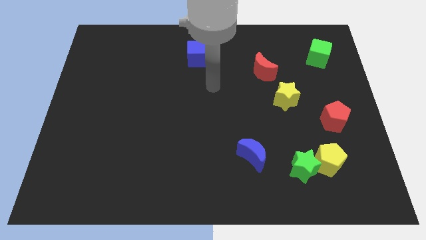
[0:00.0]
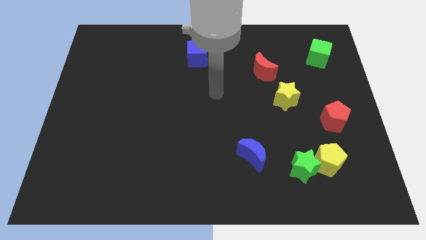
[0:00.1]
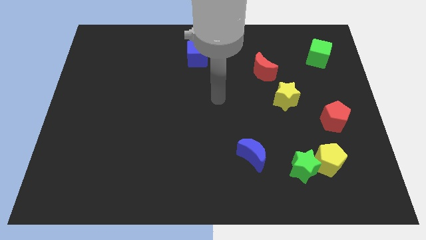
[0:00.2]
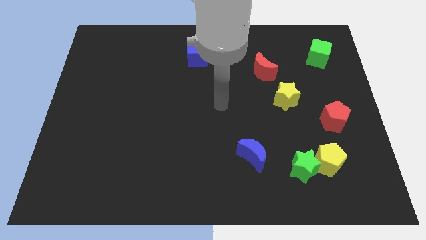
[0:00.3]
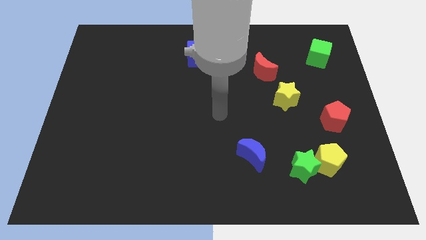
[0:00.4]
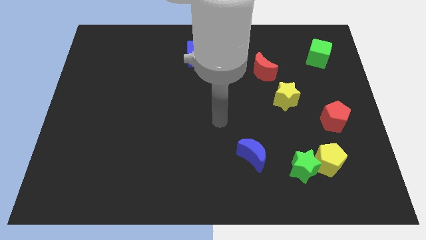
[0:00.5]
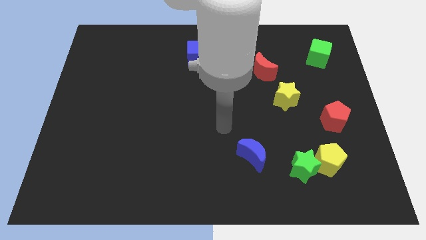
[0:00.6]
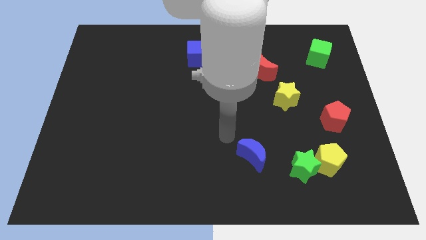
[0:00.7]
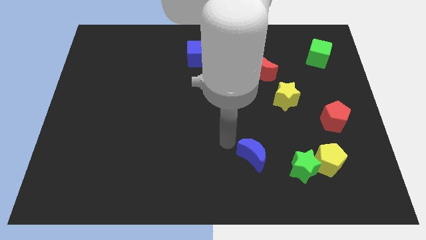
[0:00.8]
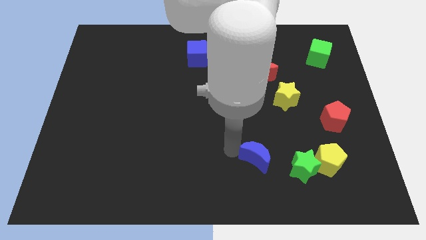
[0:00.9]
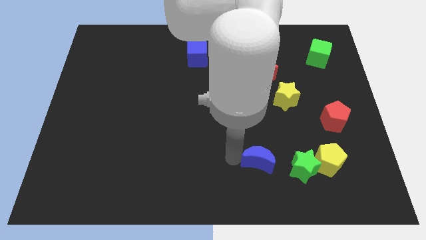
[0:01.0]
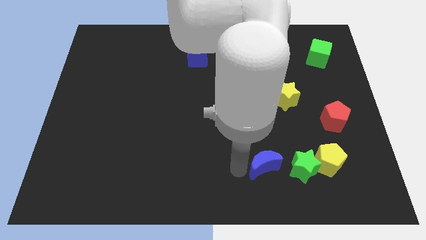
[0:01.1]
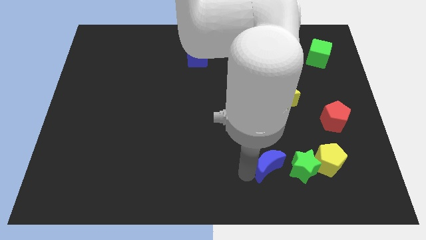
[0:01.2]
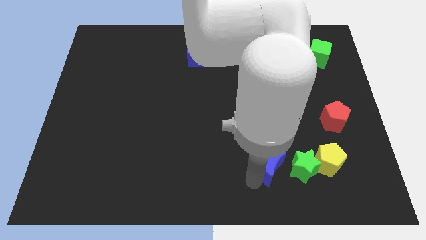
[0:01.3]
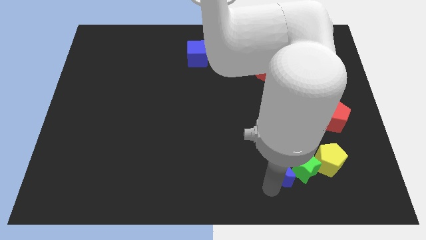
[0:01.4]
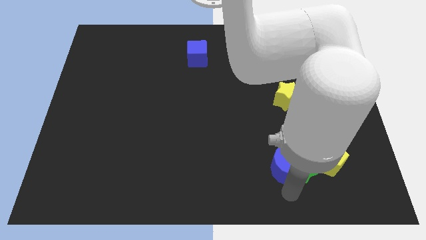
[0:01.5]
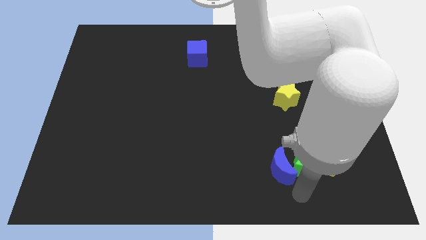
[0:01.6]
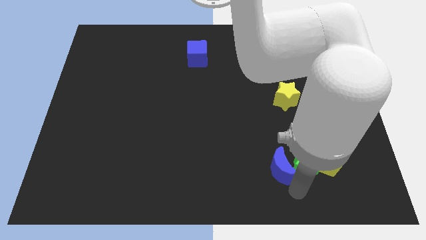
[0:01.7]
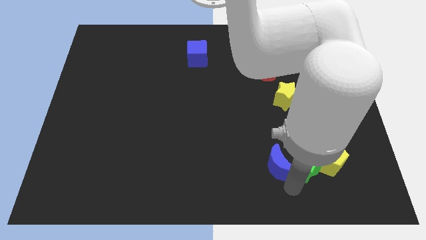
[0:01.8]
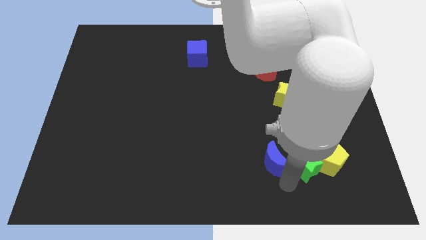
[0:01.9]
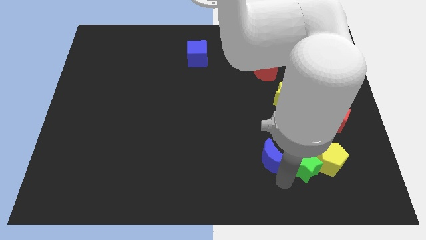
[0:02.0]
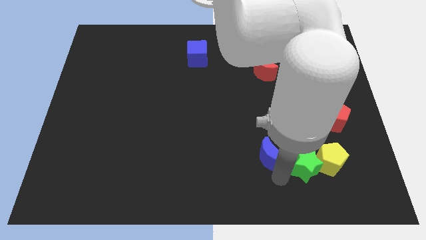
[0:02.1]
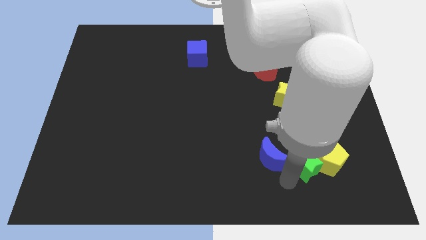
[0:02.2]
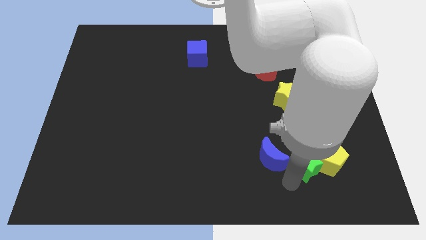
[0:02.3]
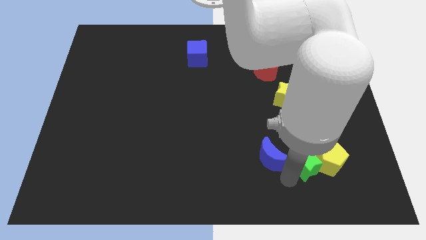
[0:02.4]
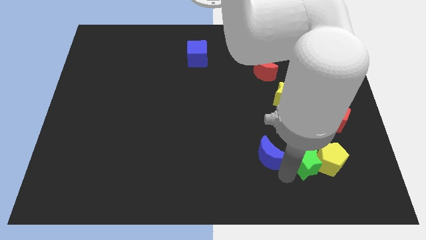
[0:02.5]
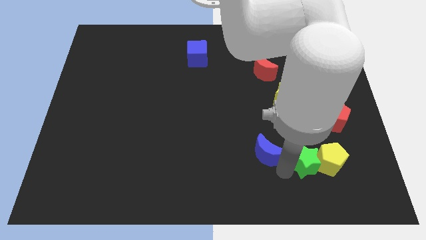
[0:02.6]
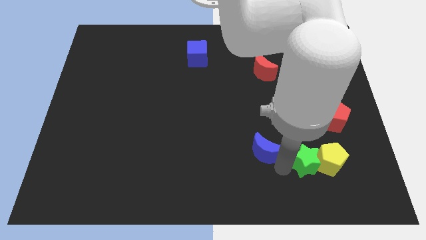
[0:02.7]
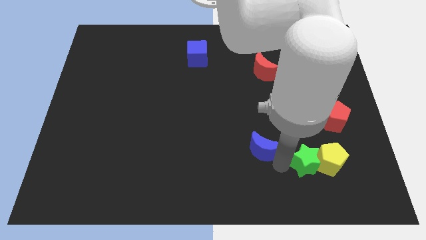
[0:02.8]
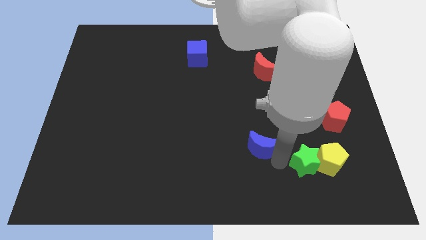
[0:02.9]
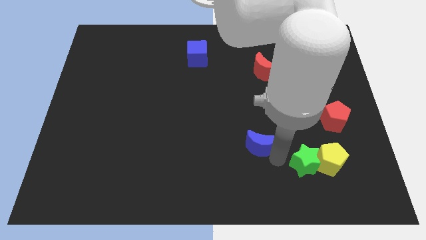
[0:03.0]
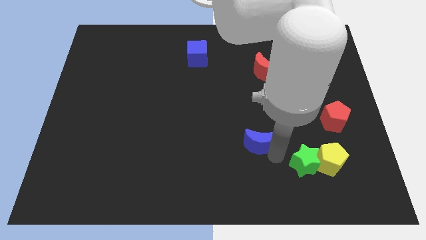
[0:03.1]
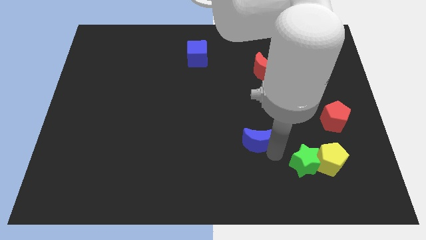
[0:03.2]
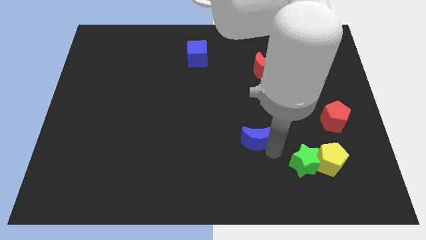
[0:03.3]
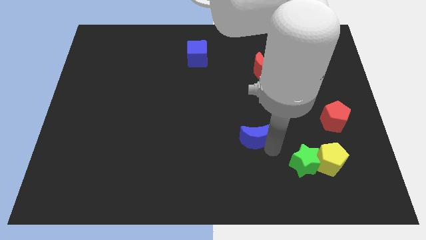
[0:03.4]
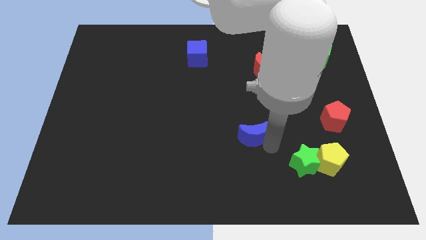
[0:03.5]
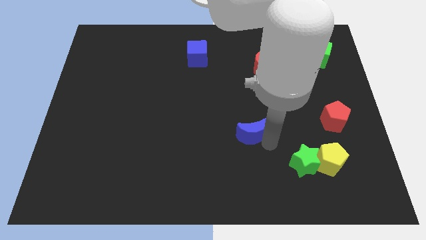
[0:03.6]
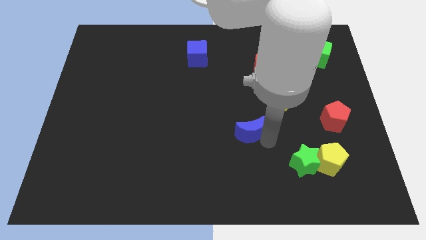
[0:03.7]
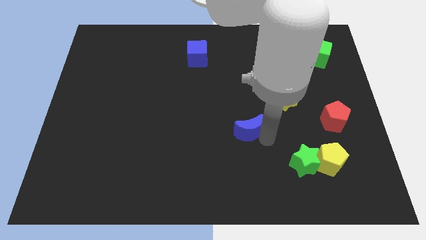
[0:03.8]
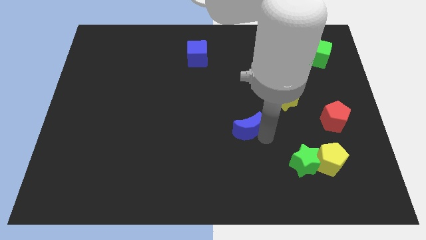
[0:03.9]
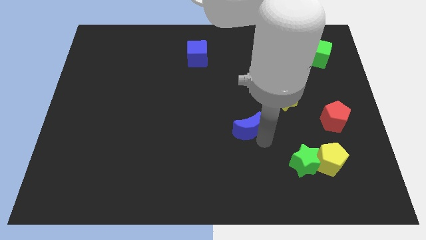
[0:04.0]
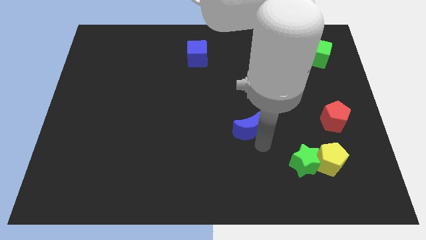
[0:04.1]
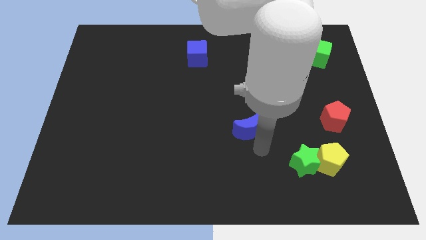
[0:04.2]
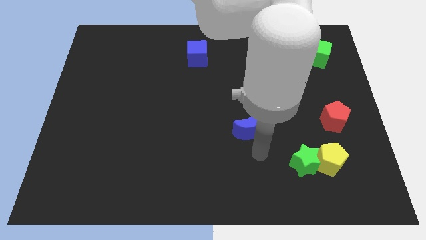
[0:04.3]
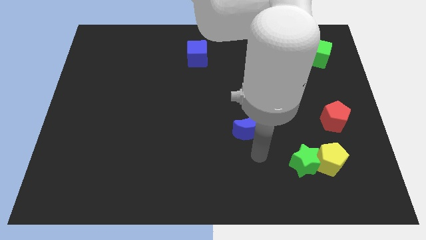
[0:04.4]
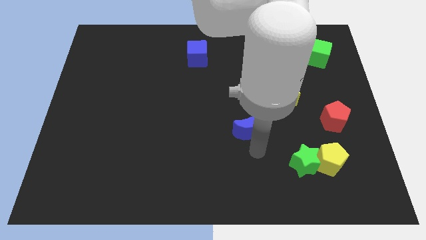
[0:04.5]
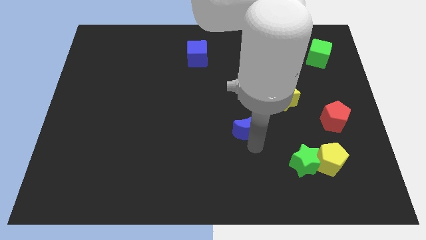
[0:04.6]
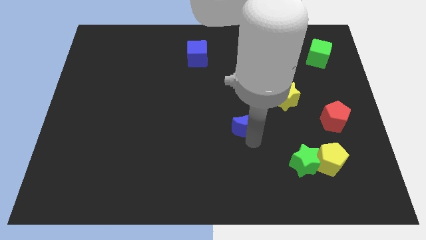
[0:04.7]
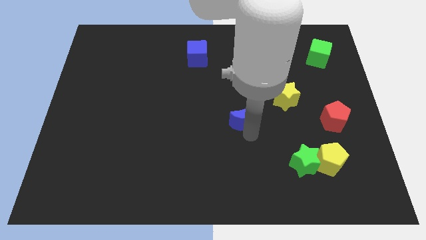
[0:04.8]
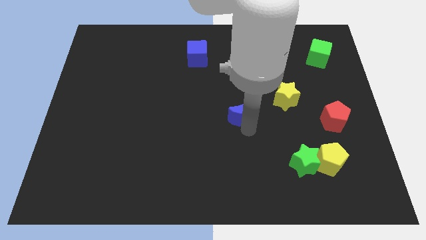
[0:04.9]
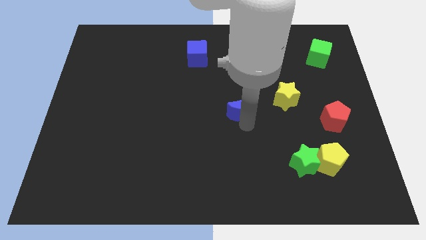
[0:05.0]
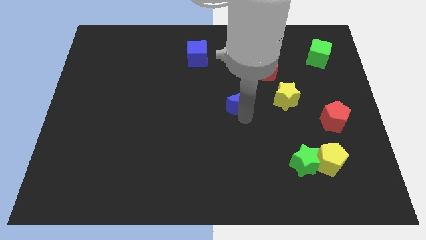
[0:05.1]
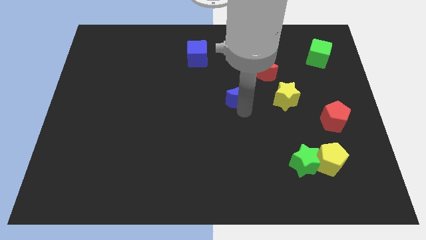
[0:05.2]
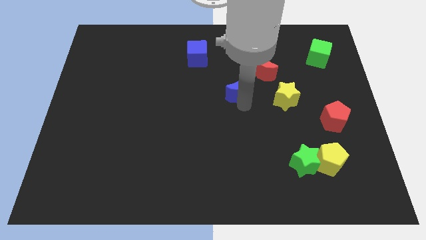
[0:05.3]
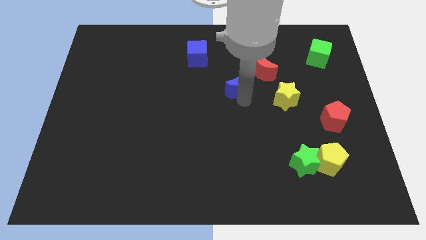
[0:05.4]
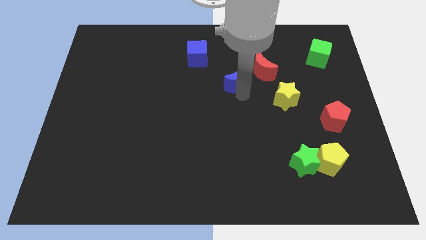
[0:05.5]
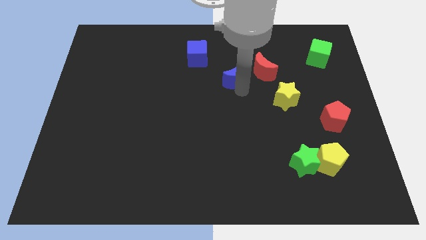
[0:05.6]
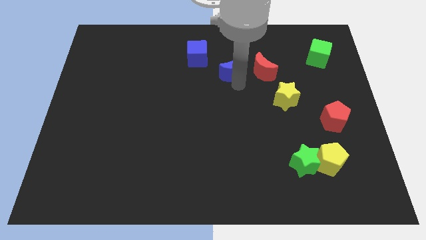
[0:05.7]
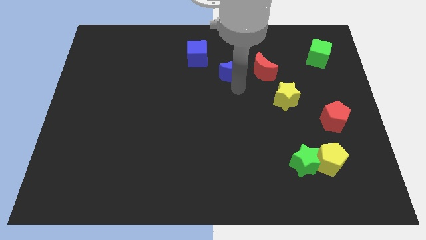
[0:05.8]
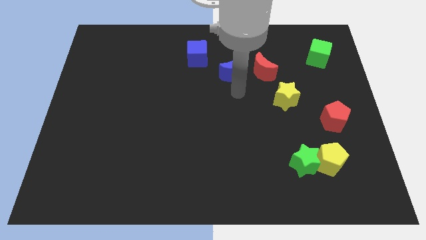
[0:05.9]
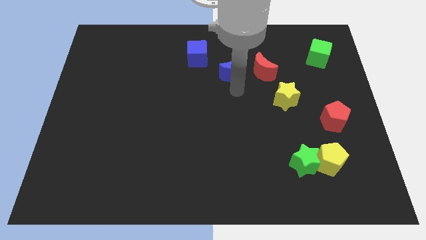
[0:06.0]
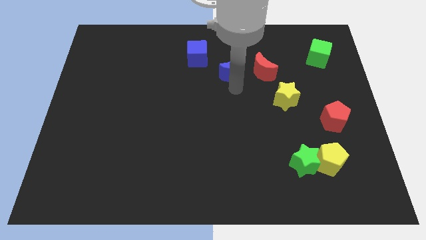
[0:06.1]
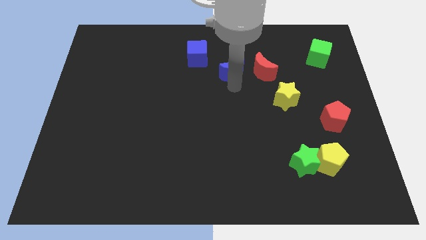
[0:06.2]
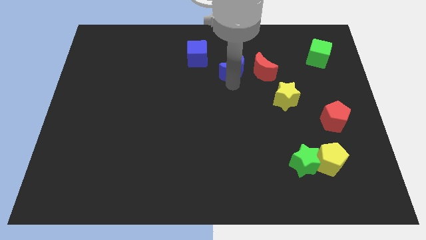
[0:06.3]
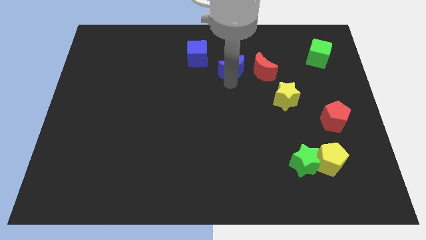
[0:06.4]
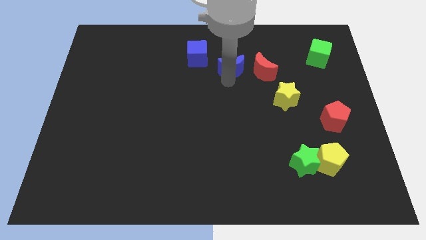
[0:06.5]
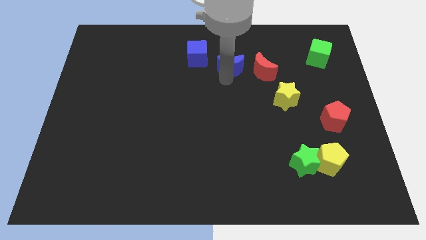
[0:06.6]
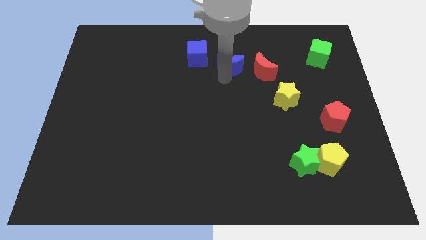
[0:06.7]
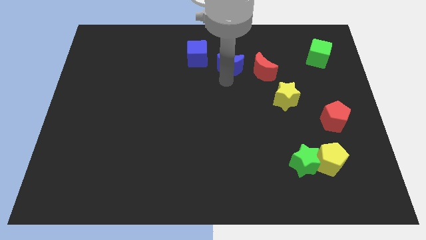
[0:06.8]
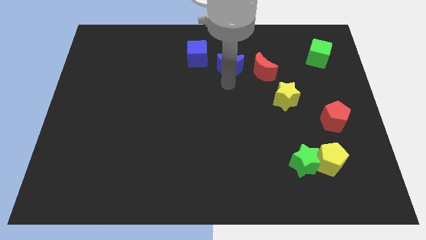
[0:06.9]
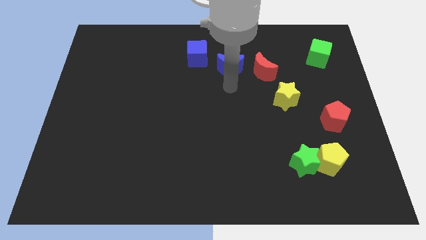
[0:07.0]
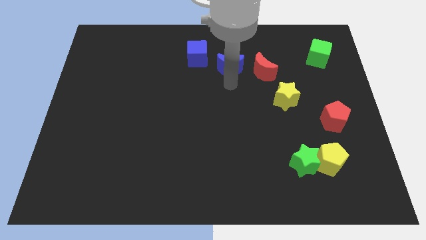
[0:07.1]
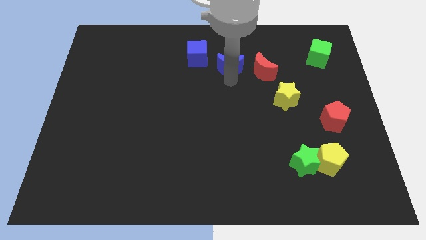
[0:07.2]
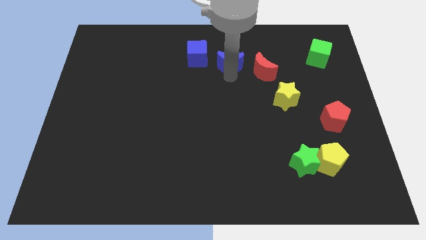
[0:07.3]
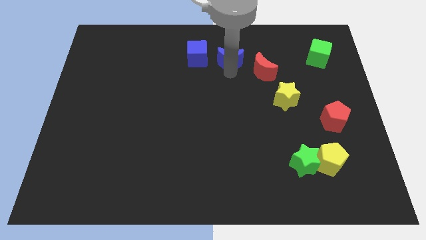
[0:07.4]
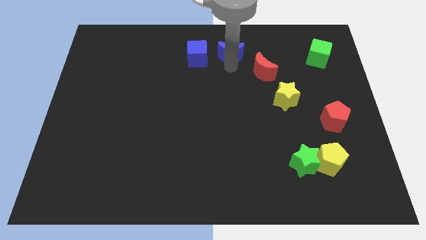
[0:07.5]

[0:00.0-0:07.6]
put the blue moon to the towards your base
